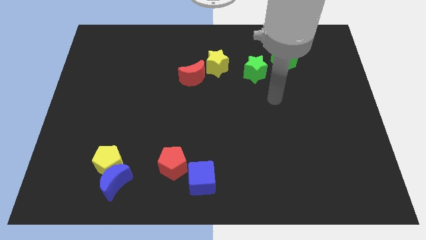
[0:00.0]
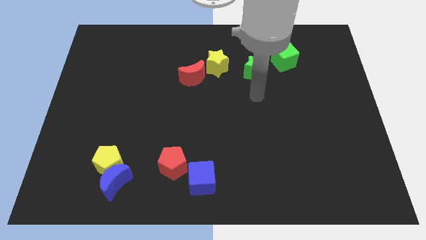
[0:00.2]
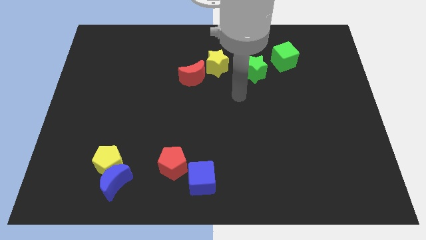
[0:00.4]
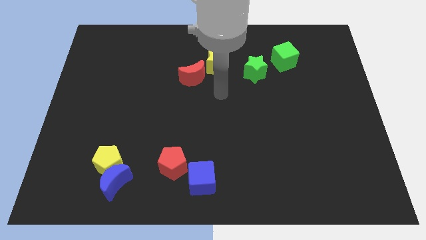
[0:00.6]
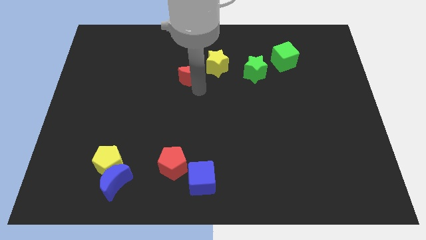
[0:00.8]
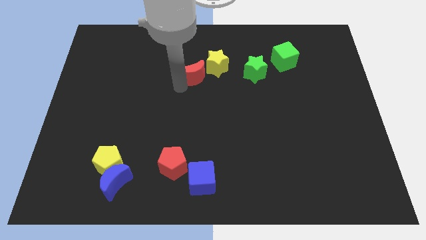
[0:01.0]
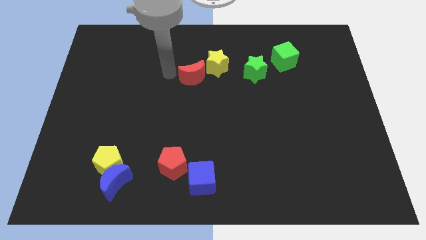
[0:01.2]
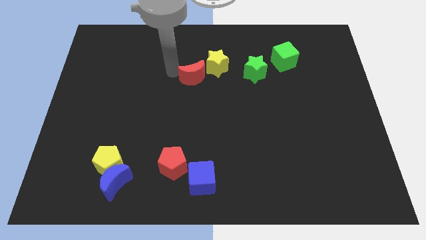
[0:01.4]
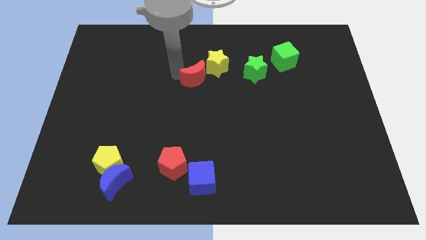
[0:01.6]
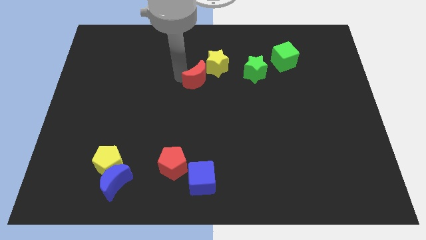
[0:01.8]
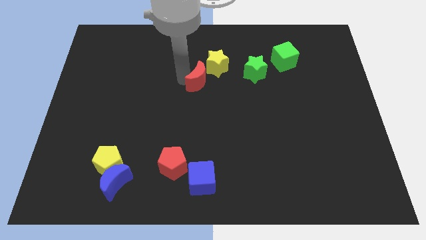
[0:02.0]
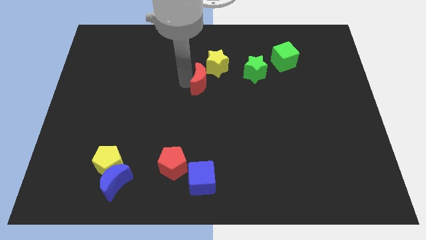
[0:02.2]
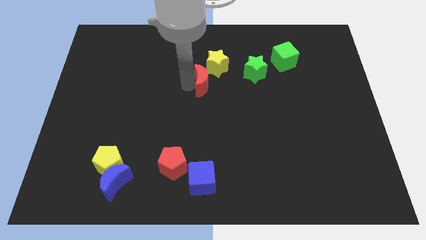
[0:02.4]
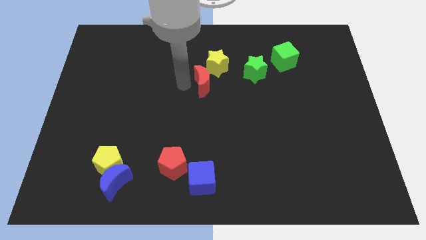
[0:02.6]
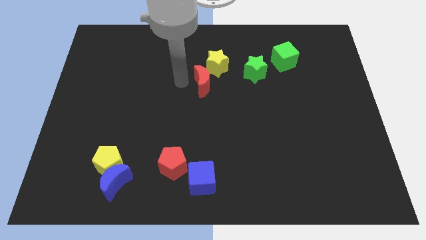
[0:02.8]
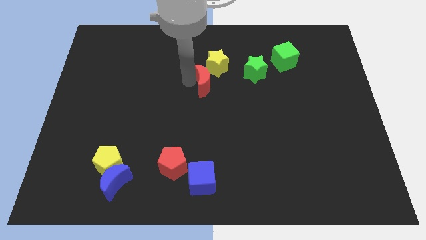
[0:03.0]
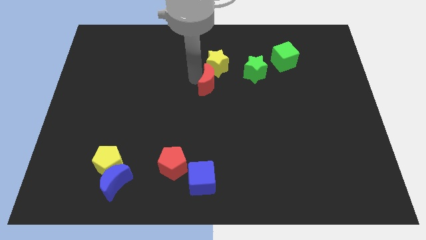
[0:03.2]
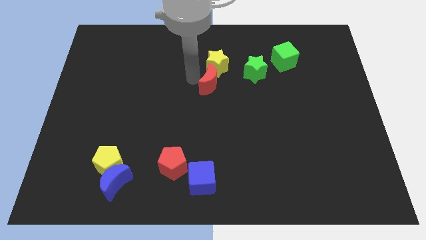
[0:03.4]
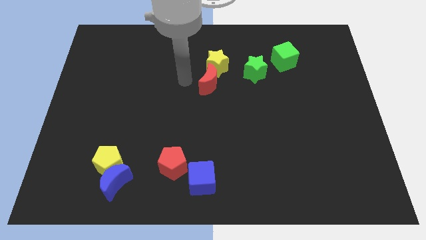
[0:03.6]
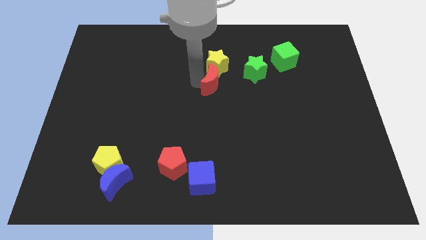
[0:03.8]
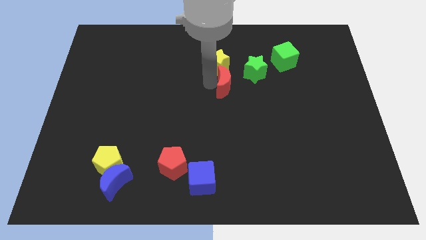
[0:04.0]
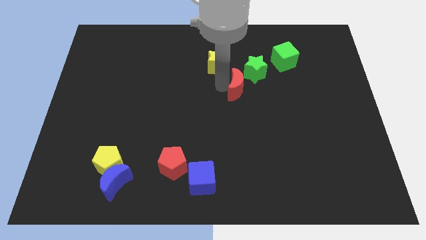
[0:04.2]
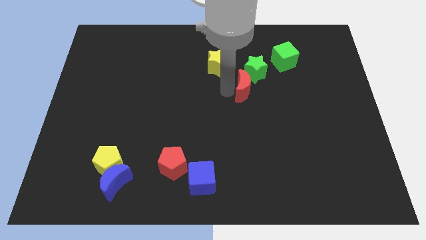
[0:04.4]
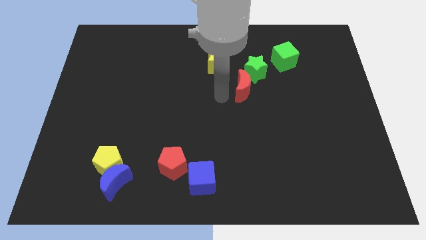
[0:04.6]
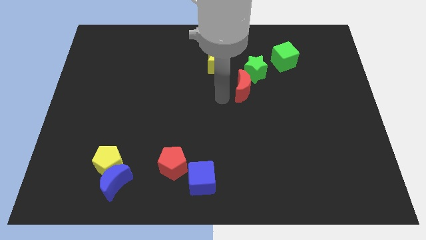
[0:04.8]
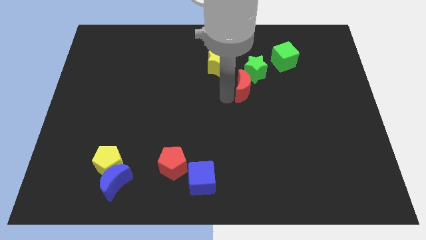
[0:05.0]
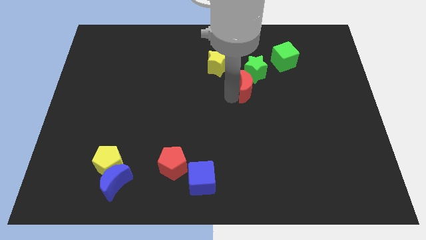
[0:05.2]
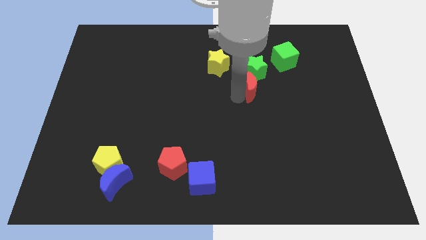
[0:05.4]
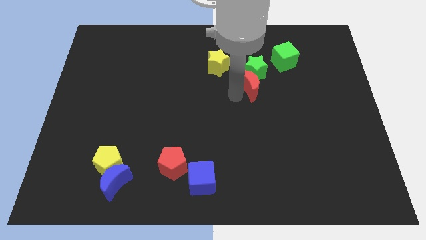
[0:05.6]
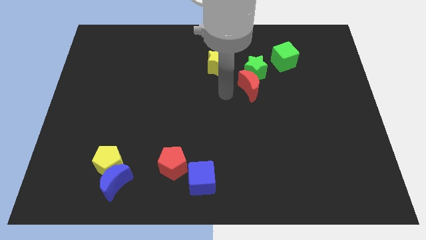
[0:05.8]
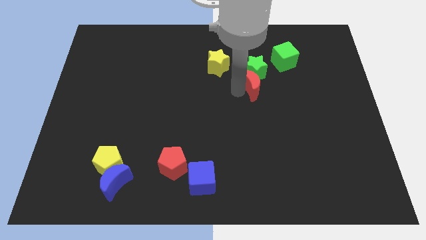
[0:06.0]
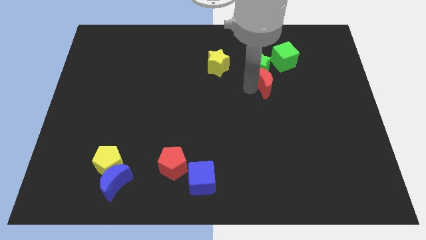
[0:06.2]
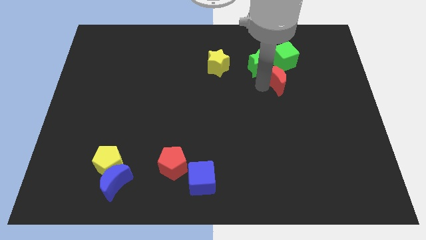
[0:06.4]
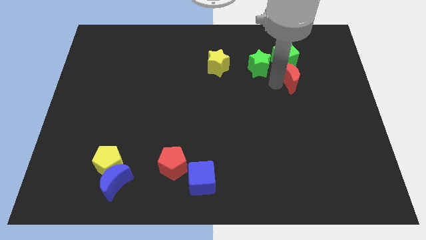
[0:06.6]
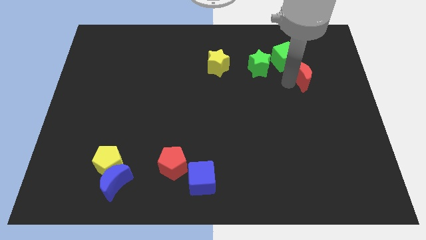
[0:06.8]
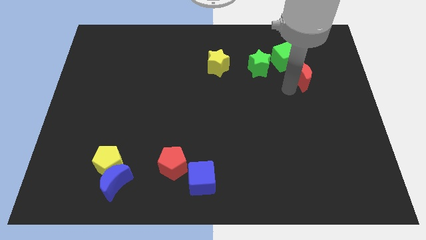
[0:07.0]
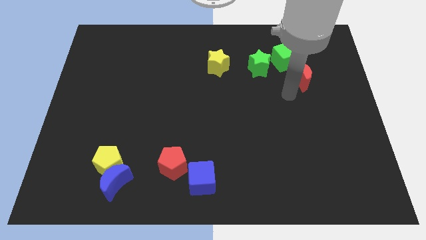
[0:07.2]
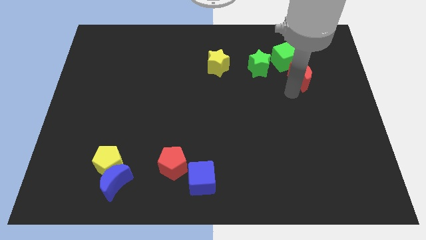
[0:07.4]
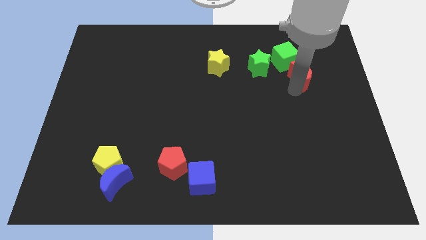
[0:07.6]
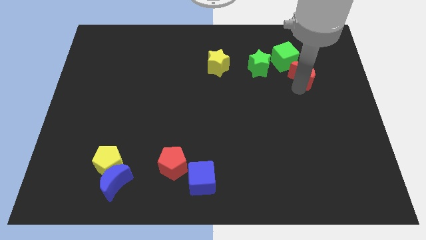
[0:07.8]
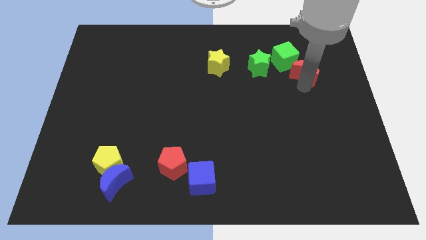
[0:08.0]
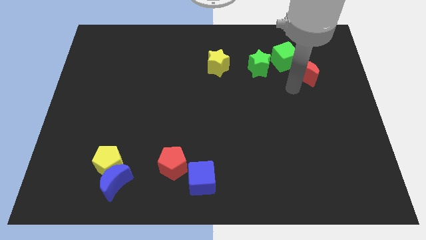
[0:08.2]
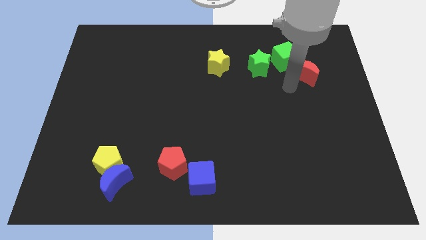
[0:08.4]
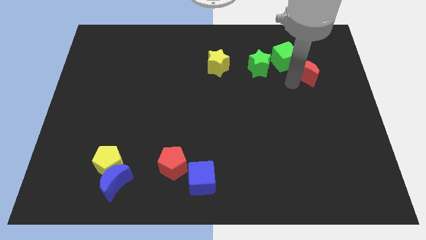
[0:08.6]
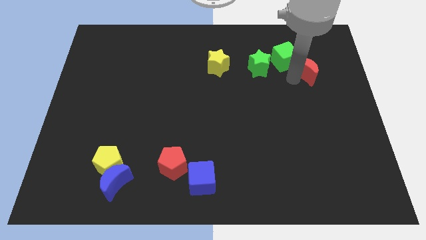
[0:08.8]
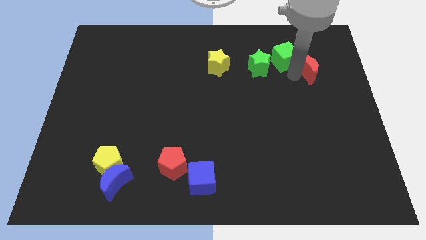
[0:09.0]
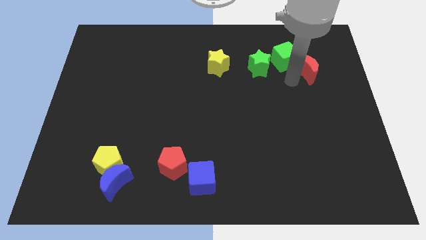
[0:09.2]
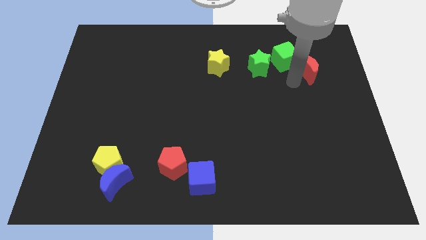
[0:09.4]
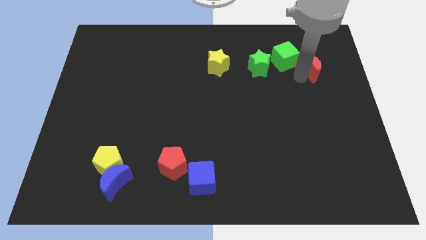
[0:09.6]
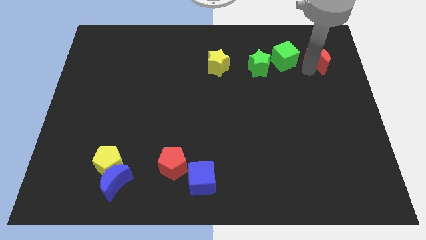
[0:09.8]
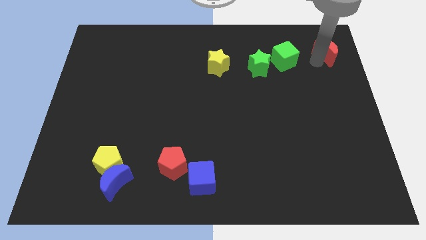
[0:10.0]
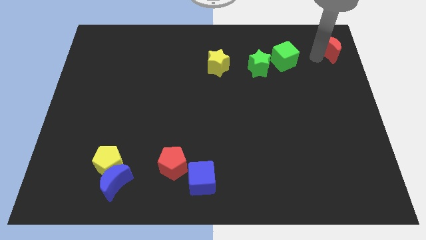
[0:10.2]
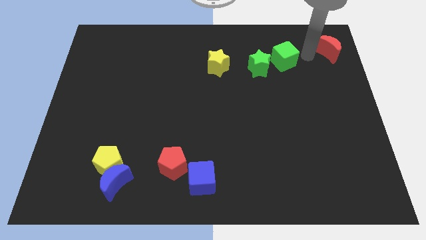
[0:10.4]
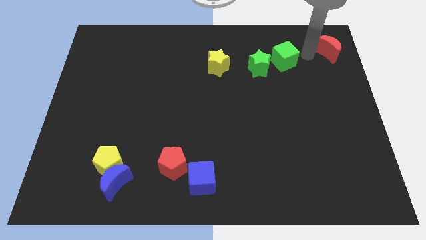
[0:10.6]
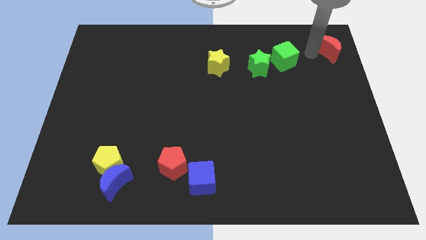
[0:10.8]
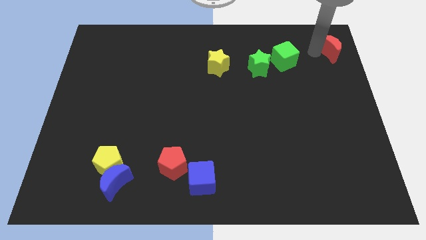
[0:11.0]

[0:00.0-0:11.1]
move the red moon to the top right corner
